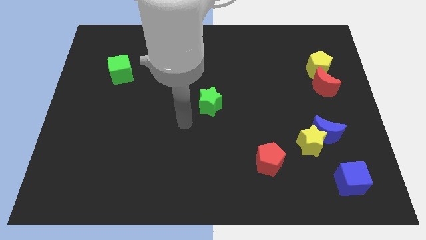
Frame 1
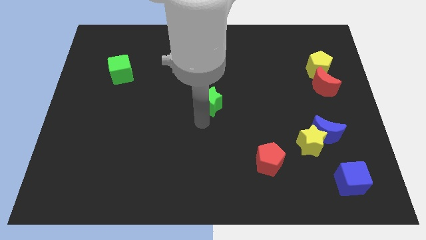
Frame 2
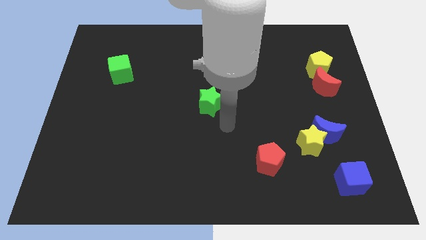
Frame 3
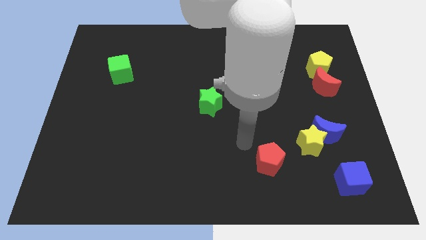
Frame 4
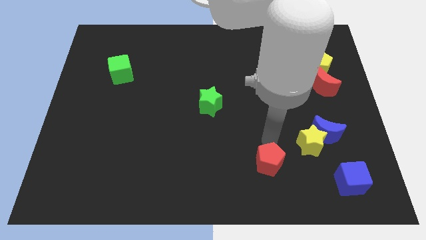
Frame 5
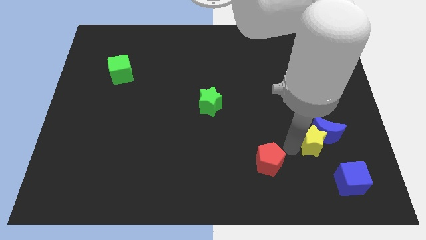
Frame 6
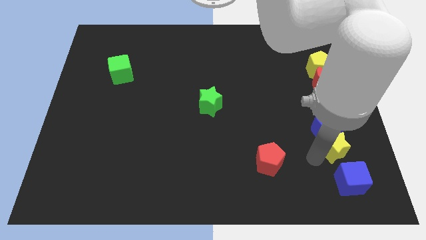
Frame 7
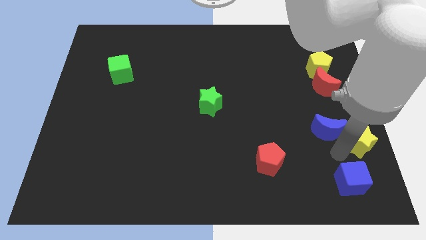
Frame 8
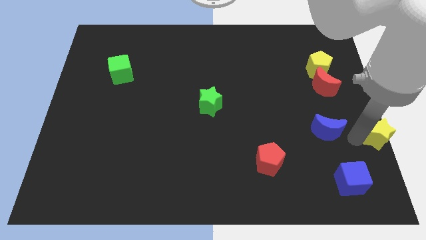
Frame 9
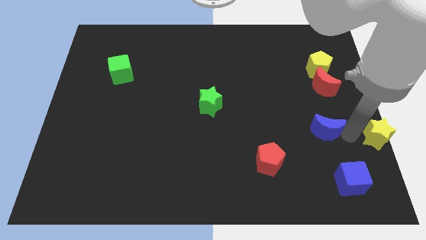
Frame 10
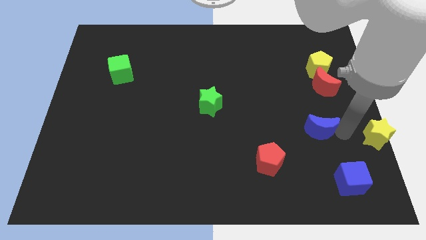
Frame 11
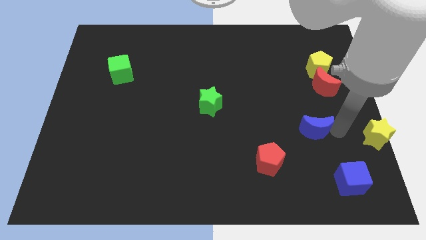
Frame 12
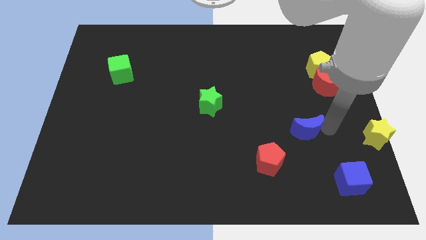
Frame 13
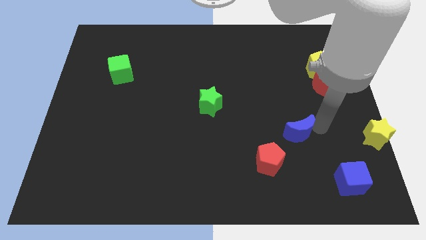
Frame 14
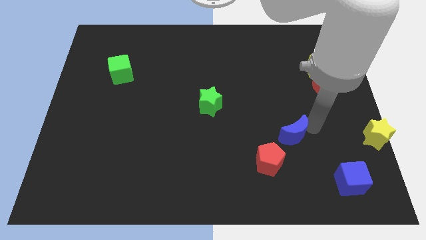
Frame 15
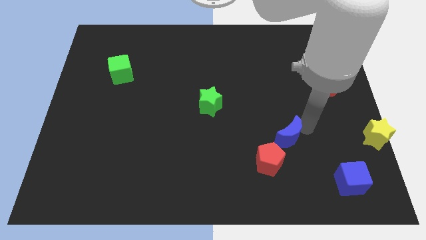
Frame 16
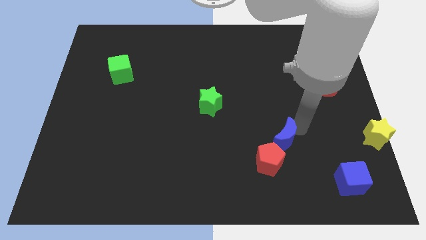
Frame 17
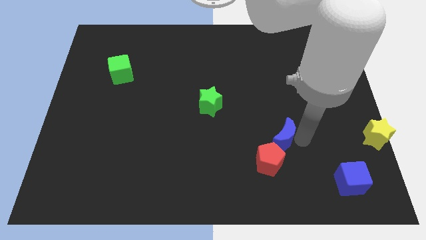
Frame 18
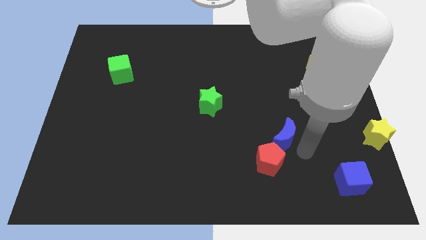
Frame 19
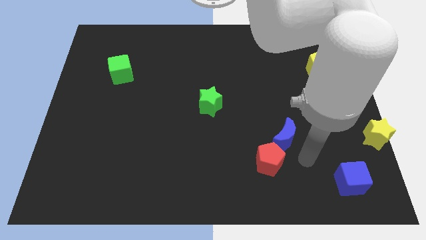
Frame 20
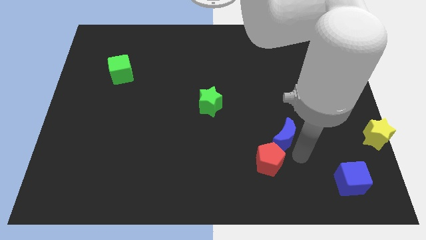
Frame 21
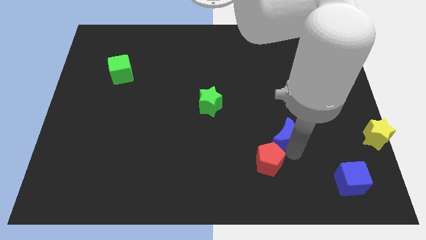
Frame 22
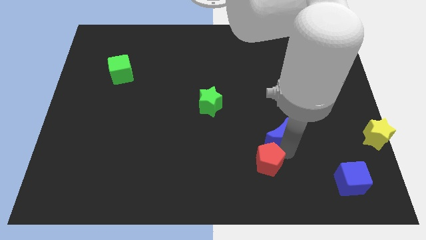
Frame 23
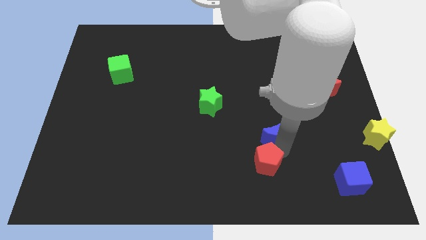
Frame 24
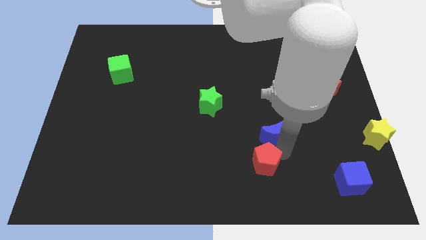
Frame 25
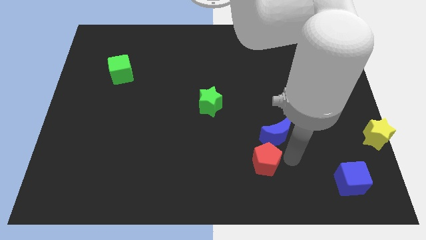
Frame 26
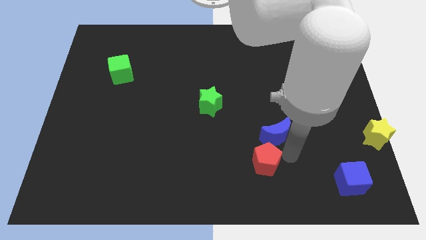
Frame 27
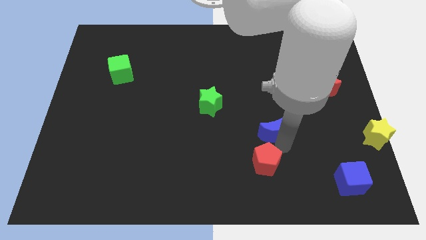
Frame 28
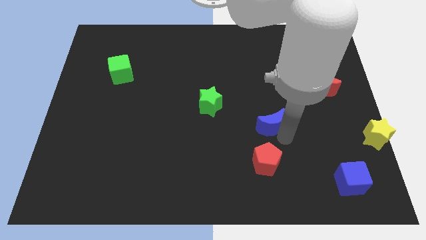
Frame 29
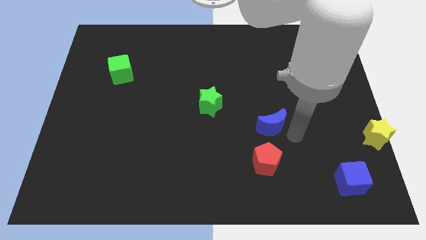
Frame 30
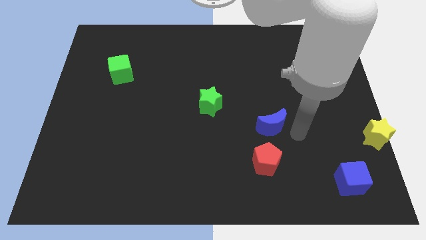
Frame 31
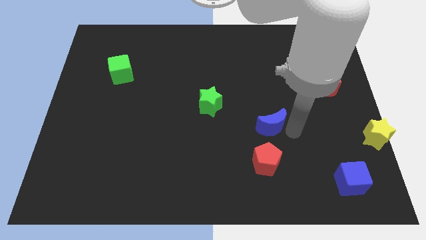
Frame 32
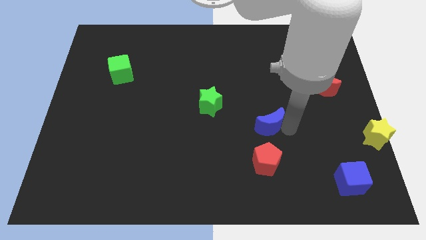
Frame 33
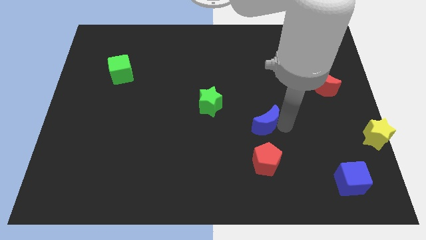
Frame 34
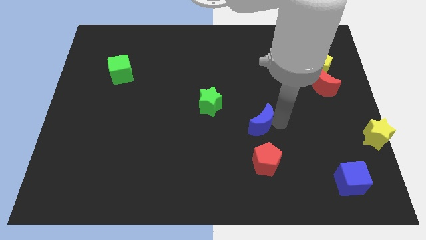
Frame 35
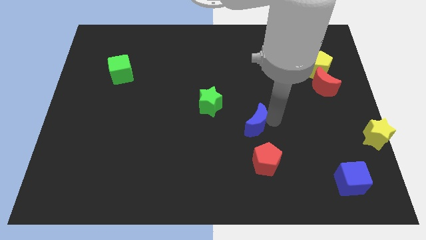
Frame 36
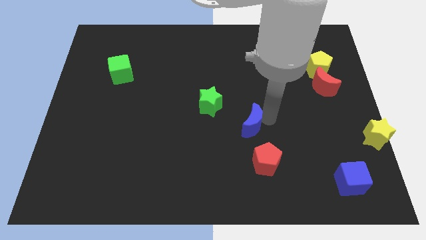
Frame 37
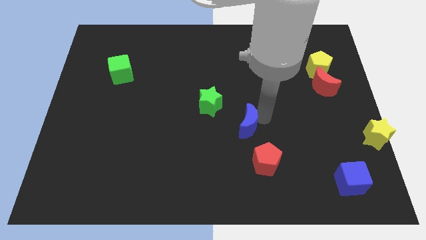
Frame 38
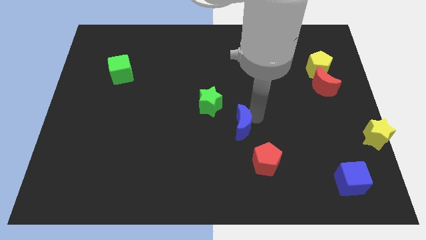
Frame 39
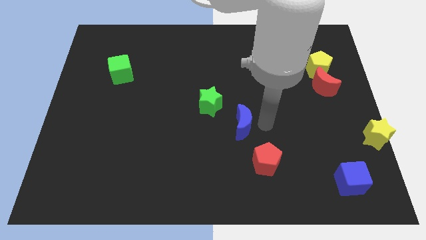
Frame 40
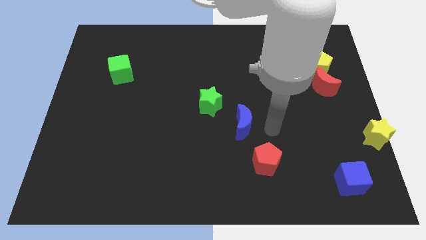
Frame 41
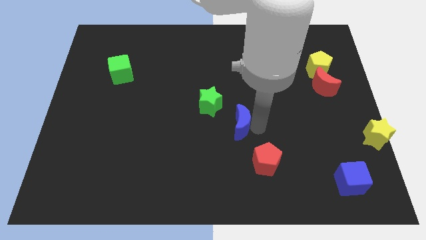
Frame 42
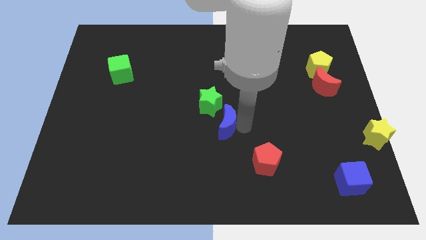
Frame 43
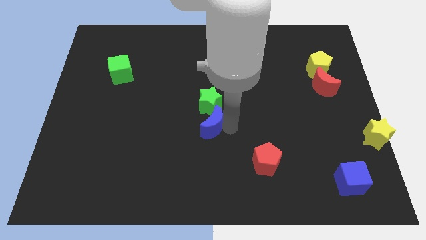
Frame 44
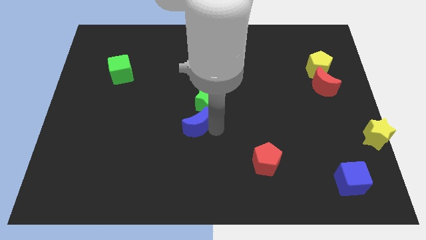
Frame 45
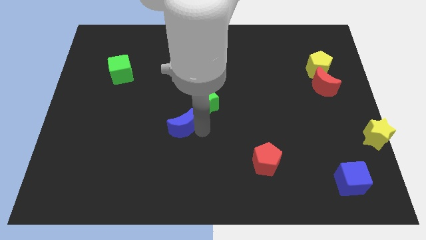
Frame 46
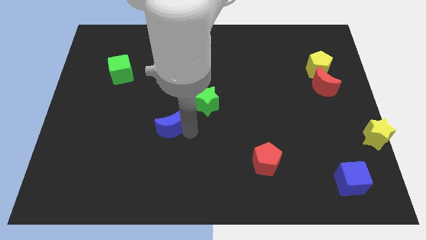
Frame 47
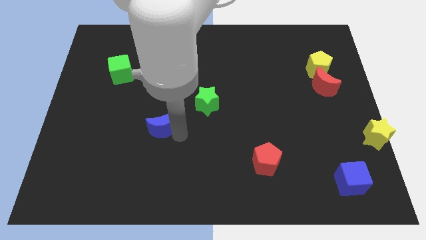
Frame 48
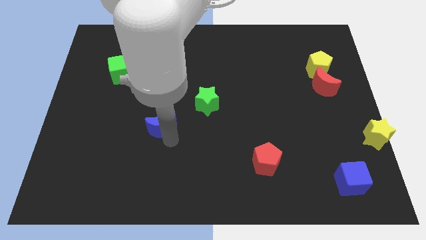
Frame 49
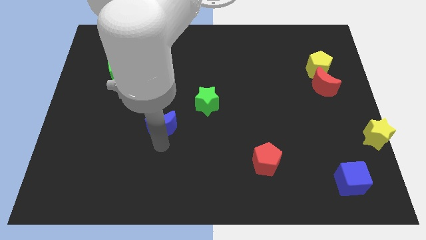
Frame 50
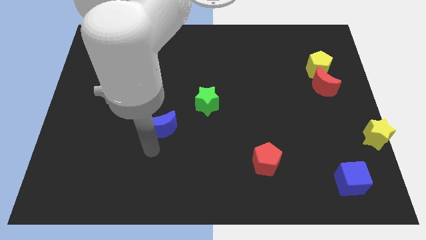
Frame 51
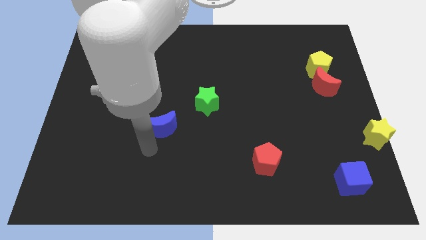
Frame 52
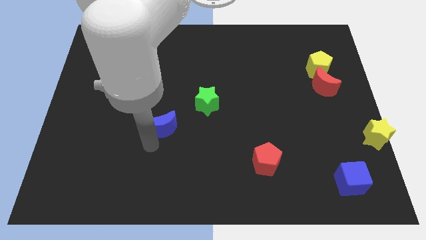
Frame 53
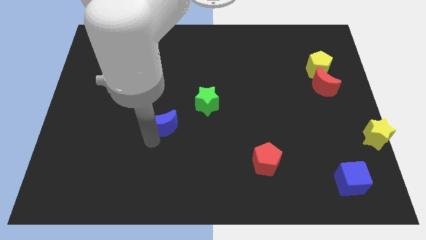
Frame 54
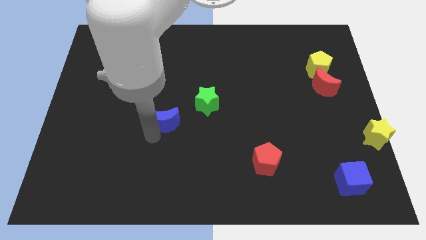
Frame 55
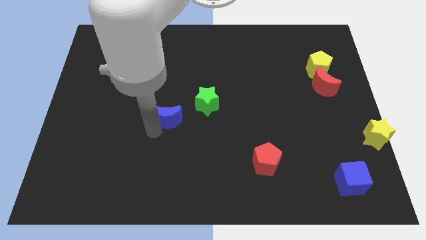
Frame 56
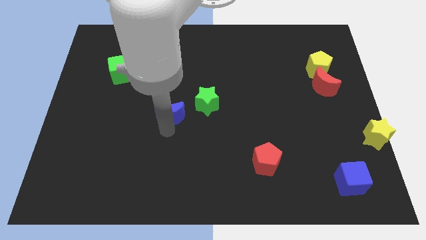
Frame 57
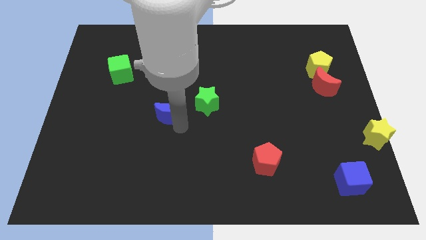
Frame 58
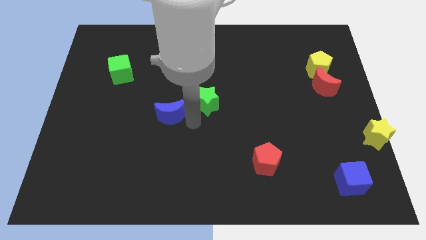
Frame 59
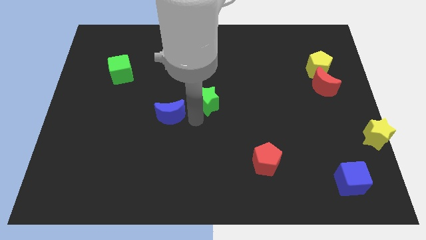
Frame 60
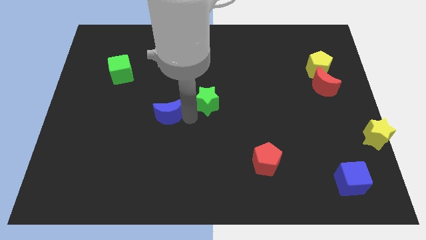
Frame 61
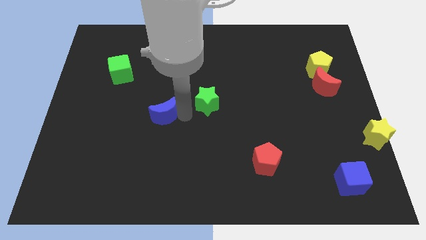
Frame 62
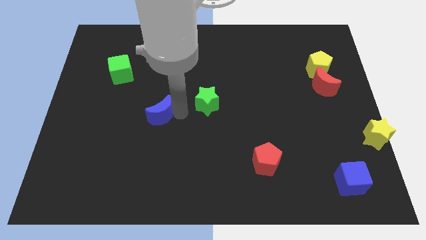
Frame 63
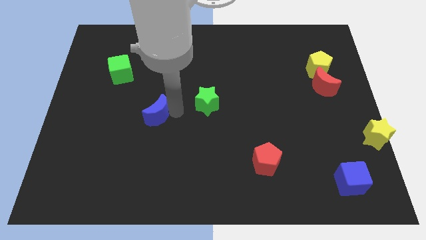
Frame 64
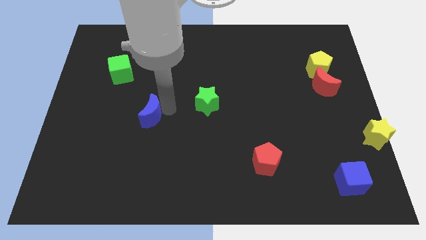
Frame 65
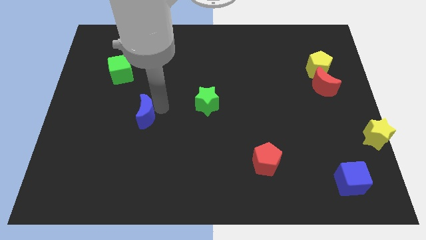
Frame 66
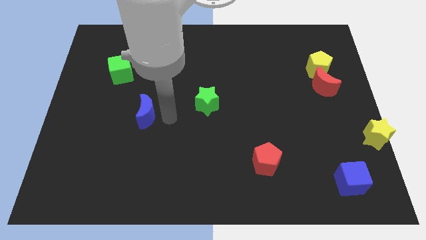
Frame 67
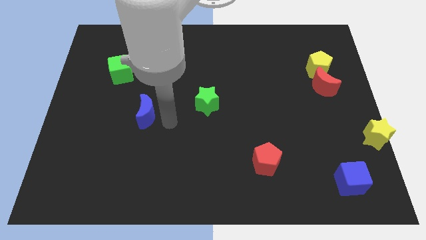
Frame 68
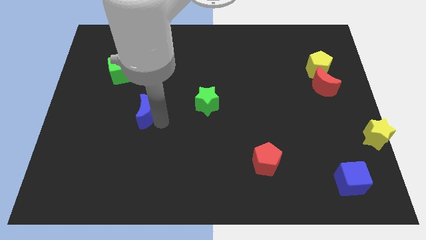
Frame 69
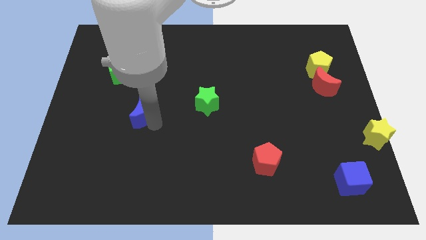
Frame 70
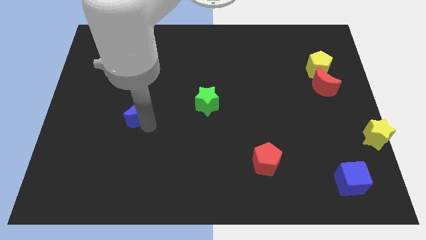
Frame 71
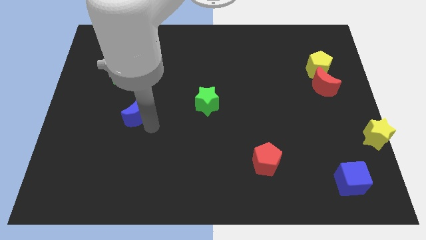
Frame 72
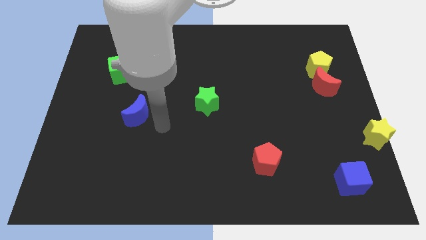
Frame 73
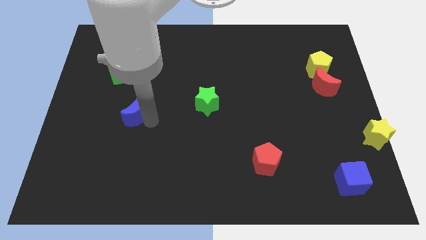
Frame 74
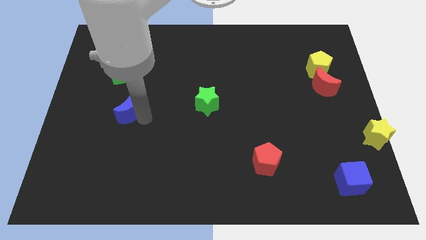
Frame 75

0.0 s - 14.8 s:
move the blue moon to the bottom side of the green cube
